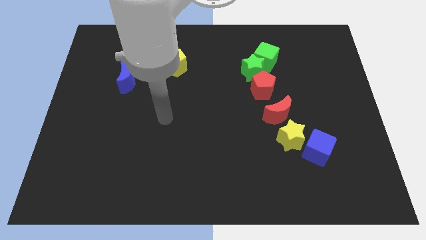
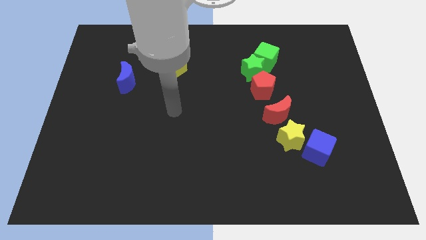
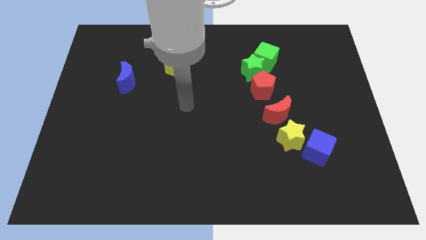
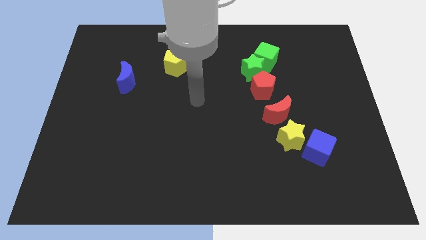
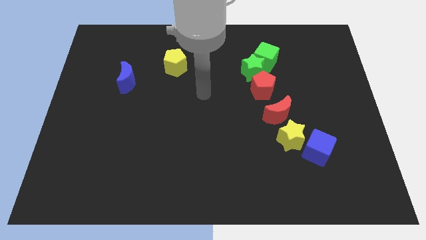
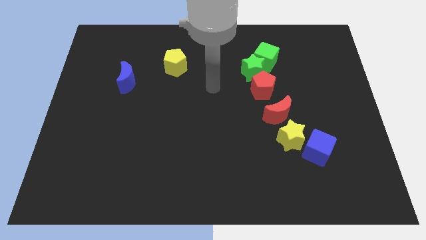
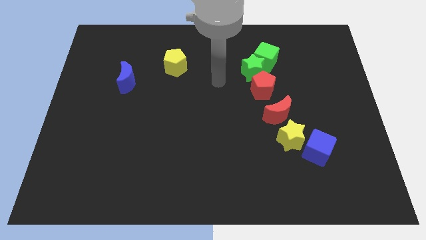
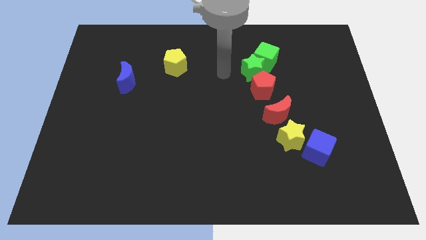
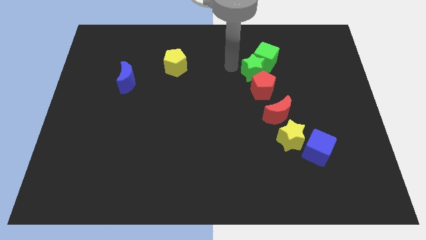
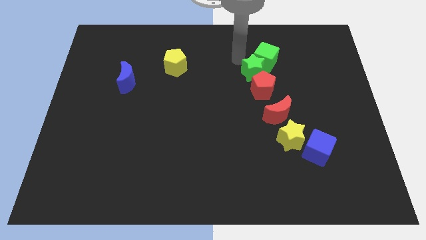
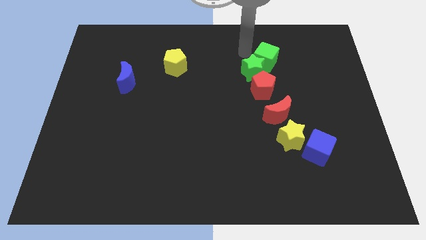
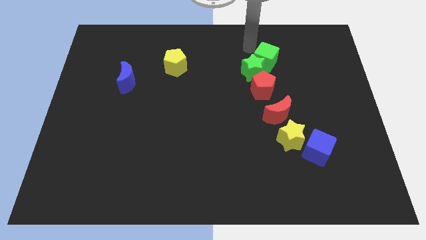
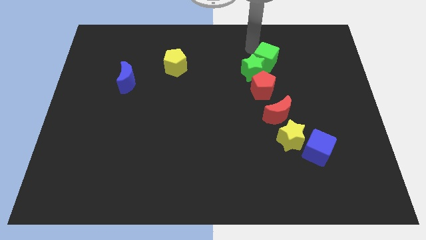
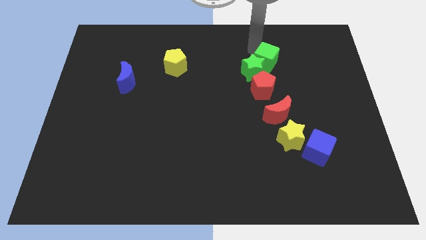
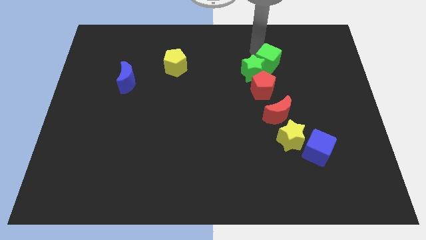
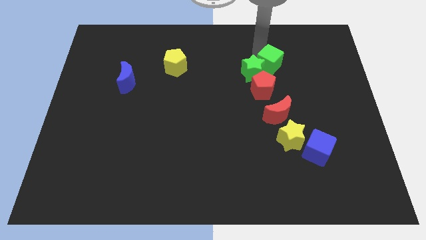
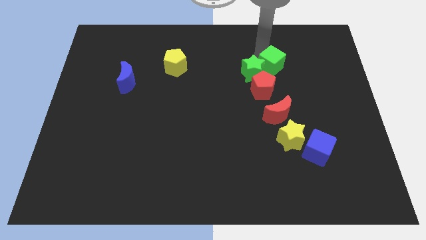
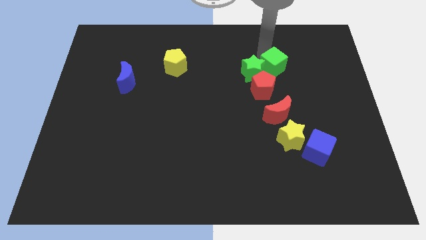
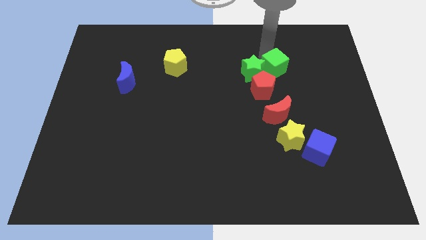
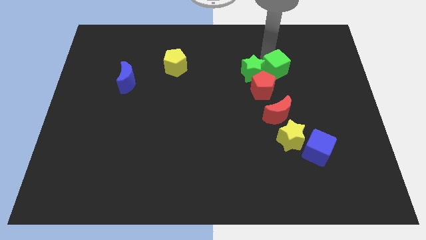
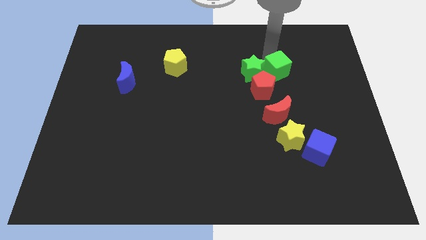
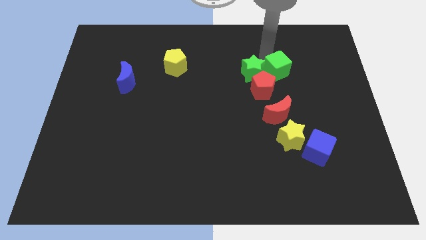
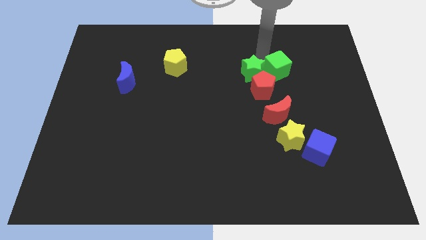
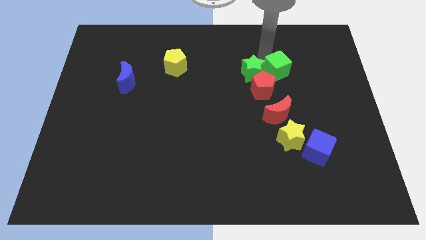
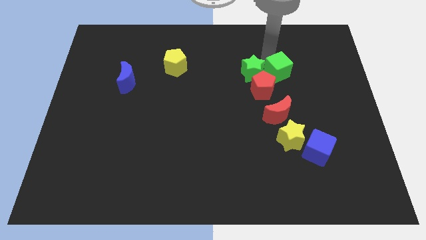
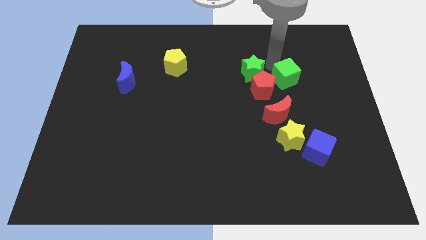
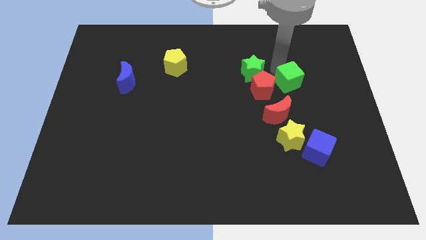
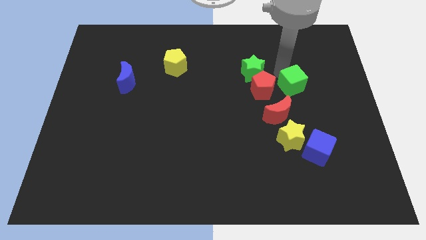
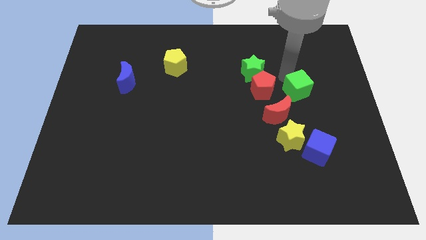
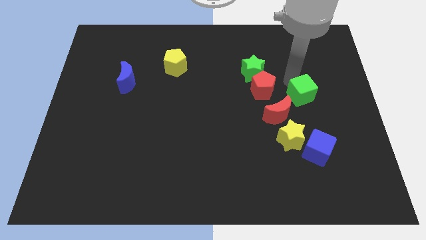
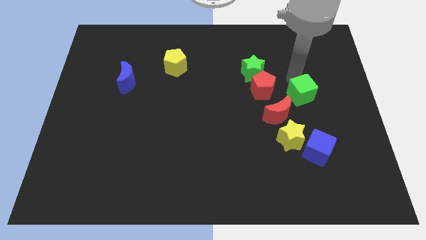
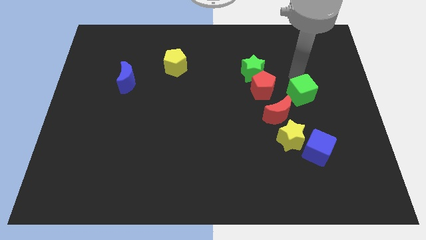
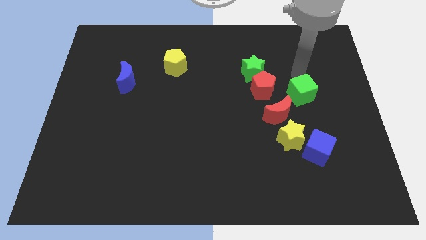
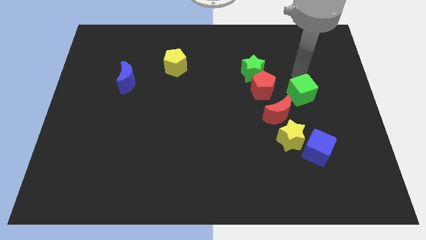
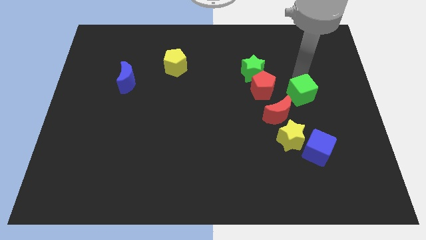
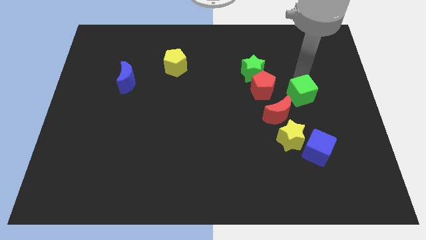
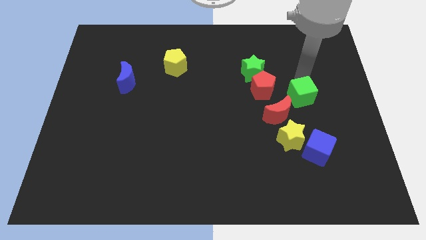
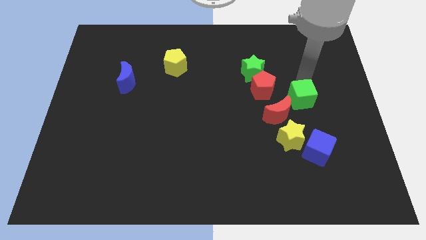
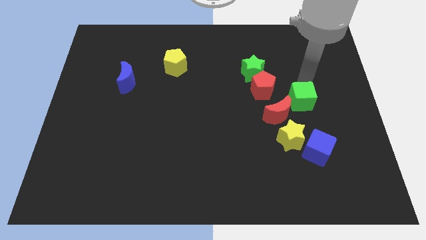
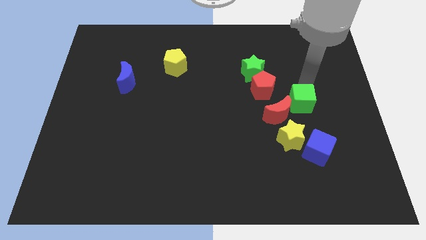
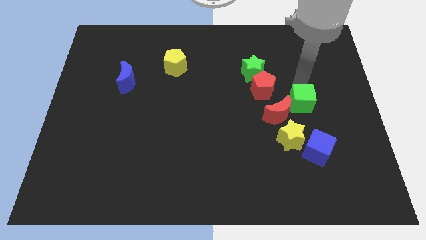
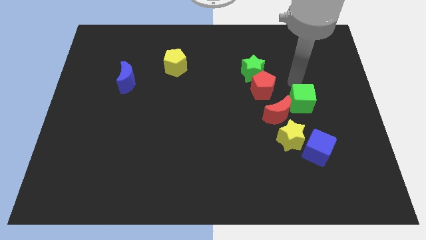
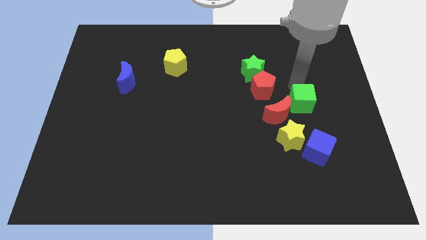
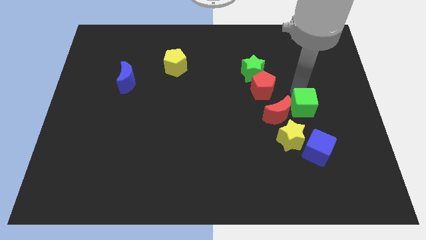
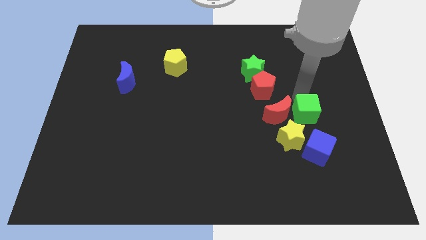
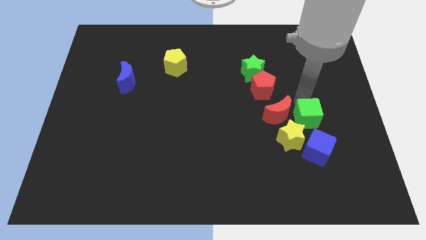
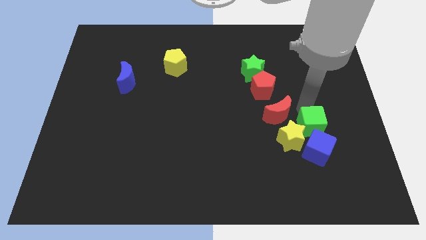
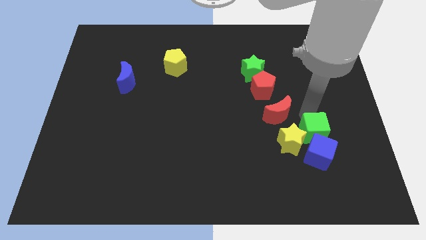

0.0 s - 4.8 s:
move the green cube next to the blue cube

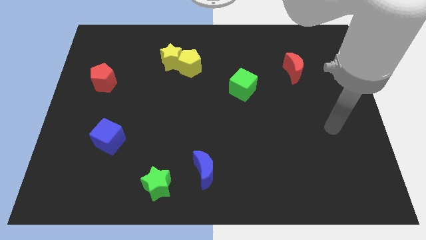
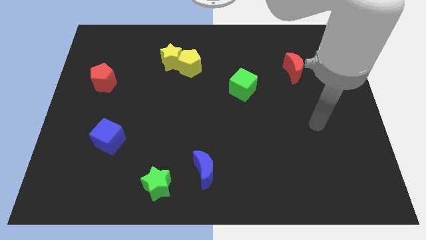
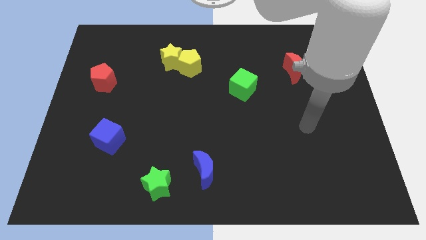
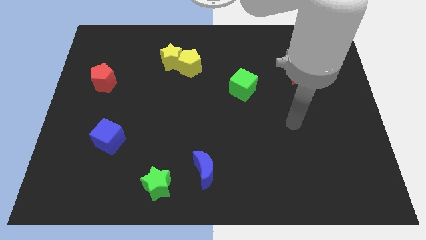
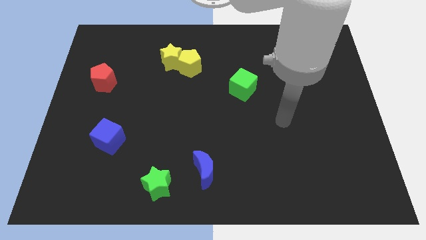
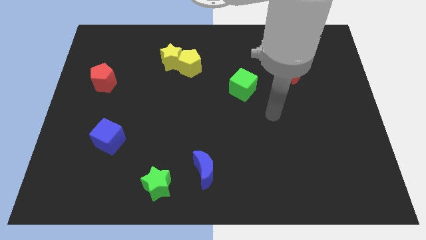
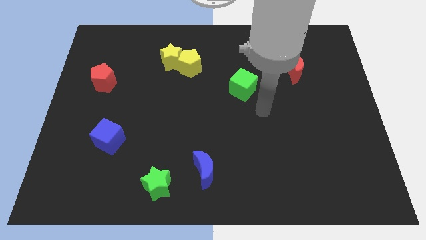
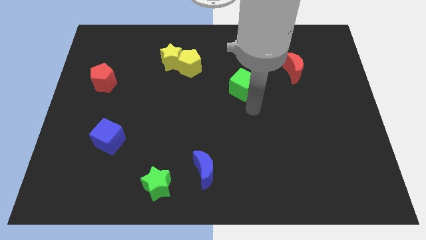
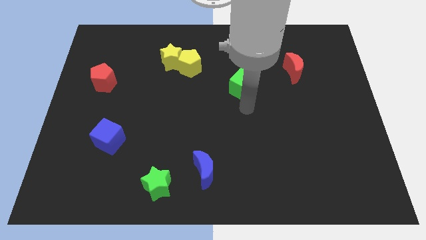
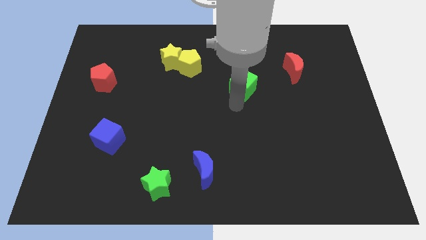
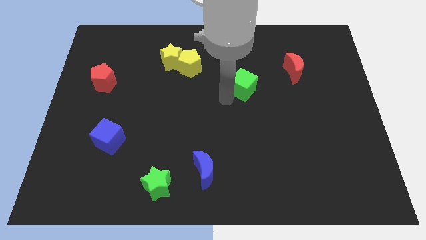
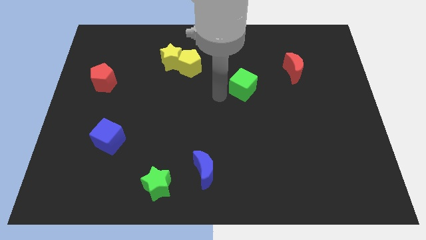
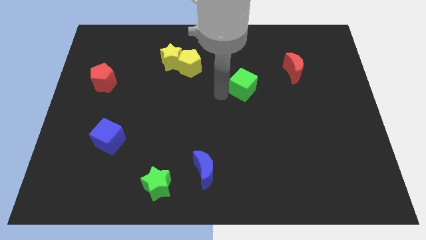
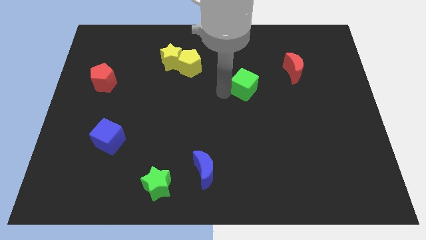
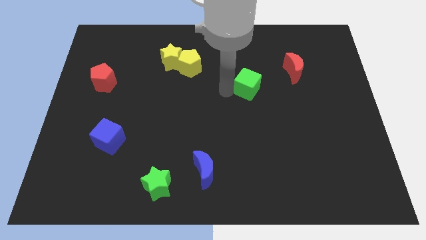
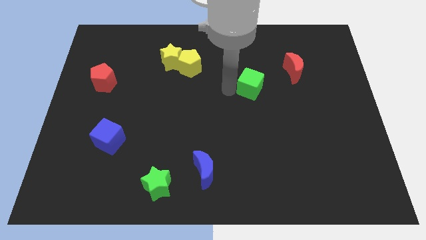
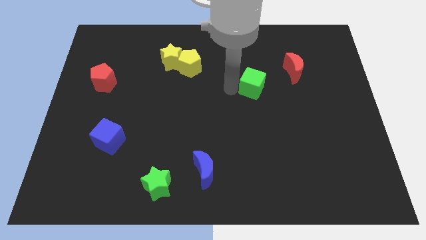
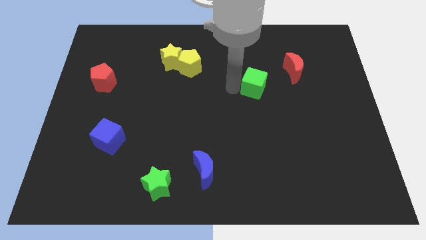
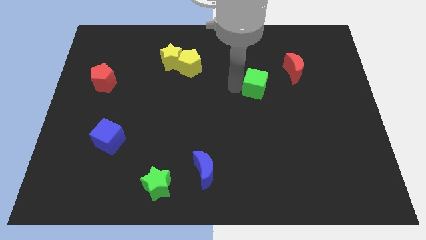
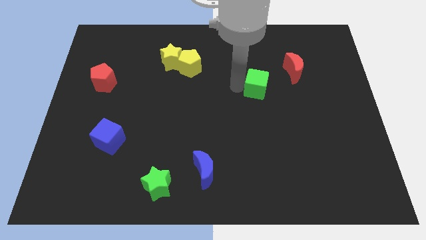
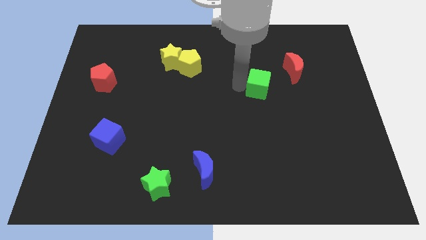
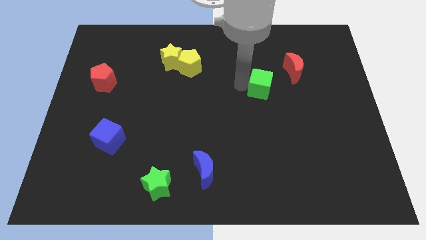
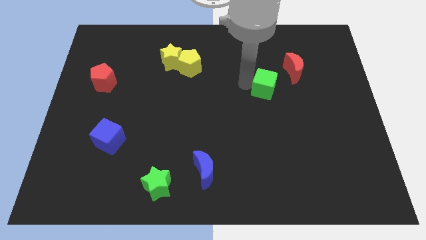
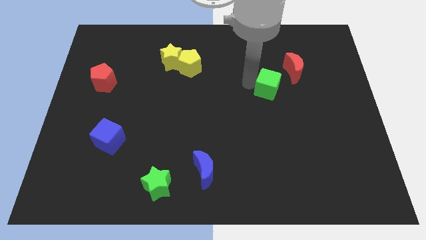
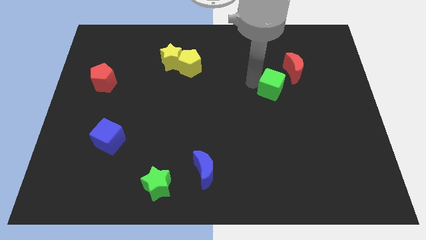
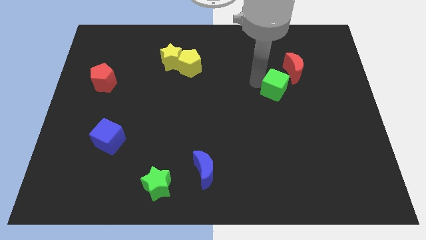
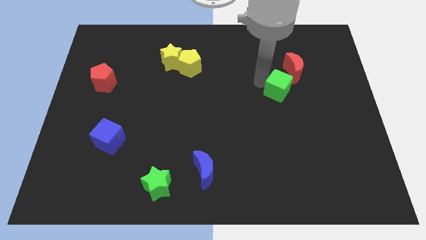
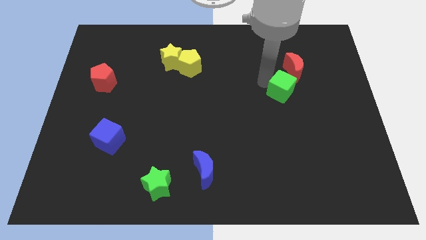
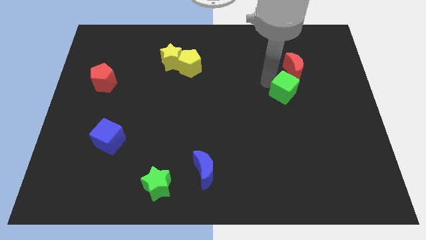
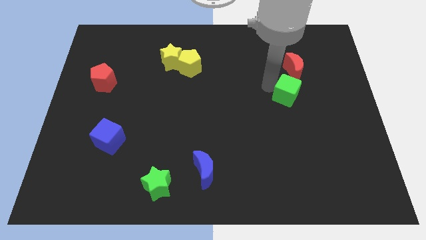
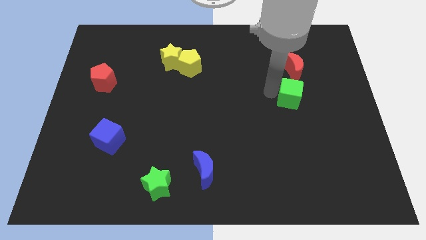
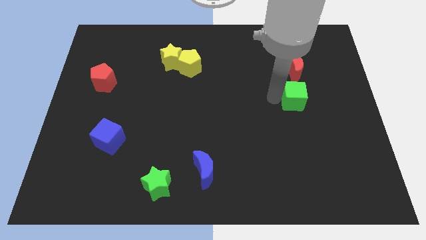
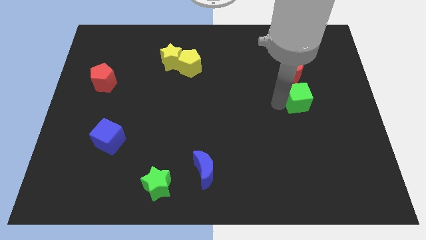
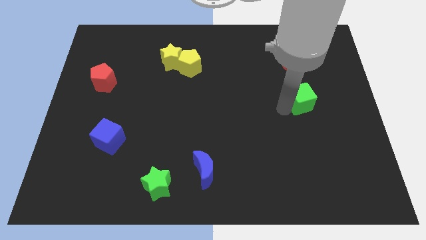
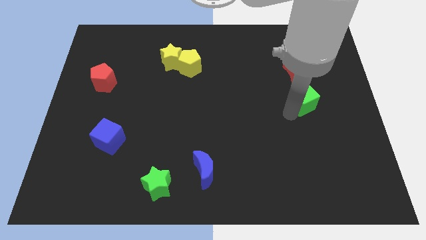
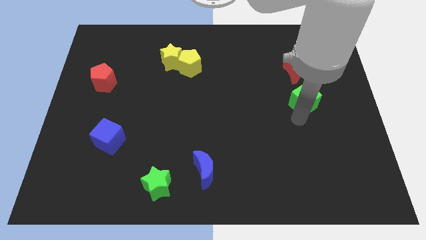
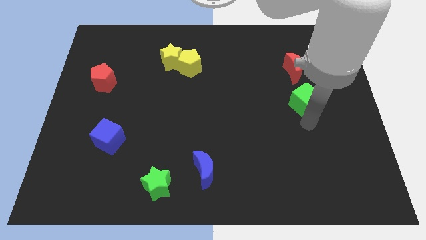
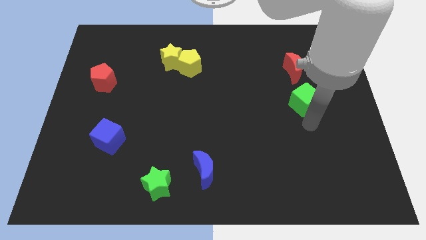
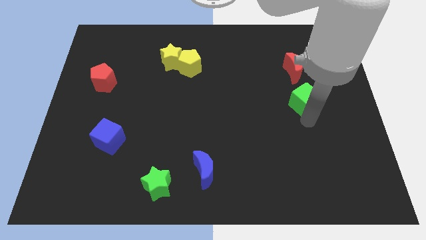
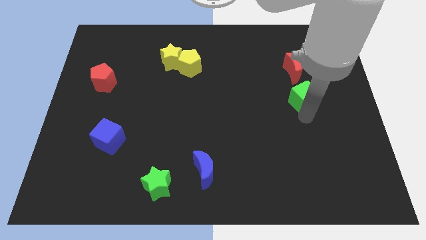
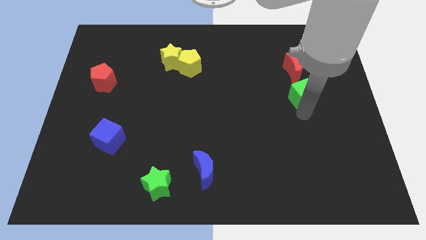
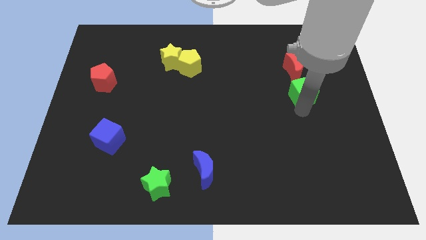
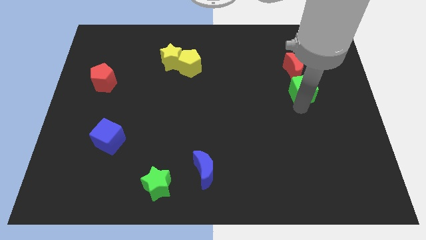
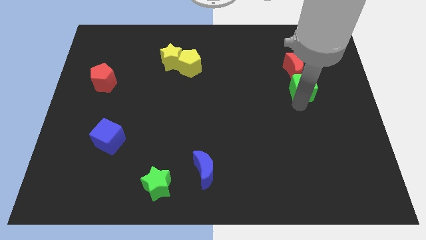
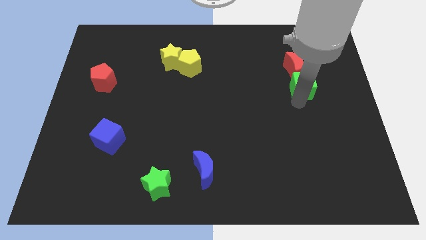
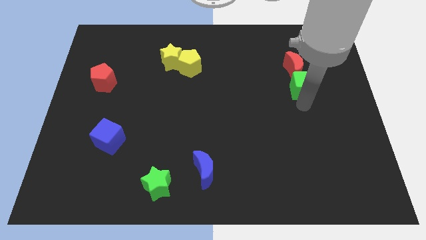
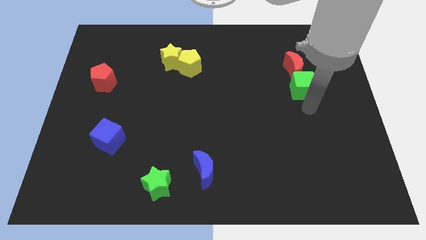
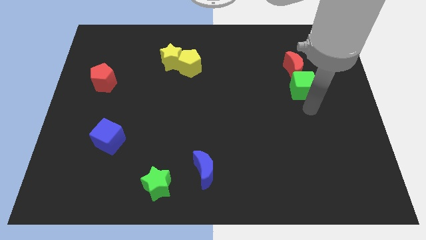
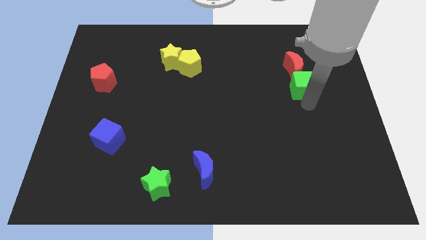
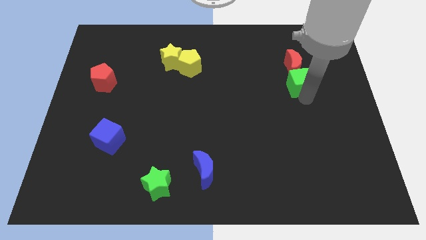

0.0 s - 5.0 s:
push the green cube close to the red moon
